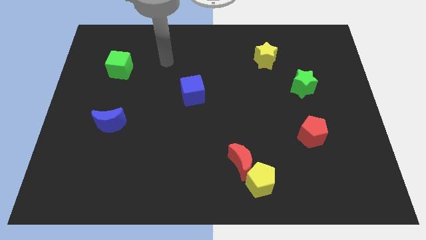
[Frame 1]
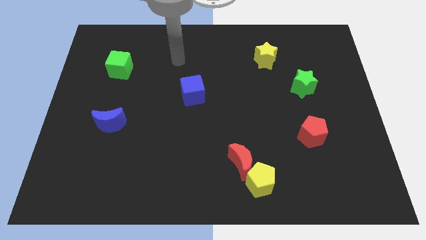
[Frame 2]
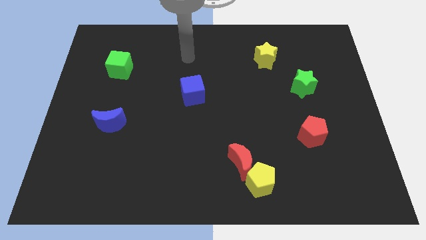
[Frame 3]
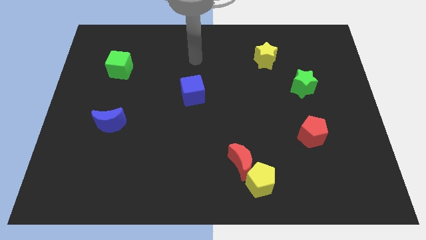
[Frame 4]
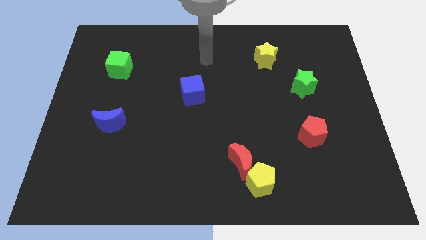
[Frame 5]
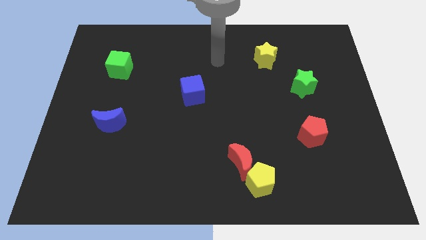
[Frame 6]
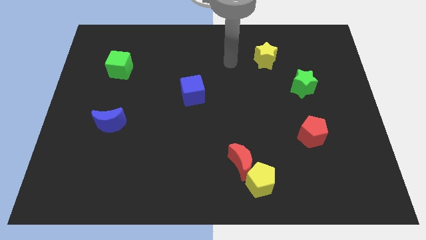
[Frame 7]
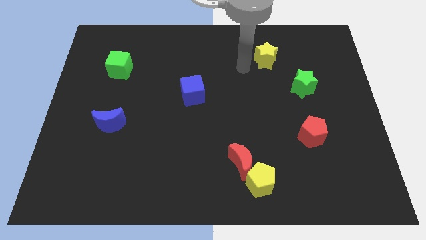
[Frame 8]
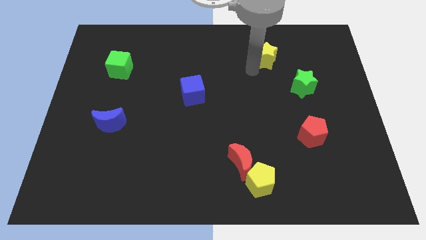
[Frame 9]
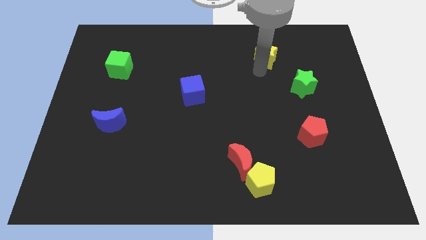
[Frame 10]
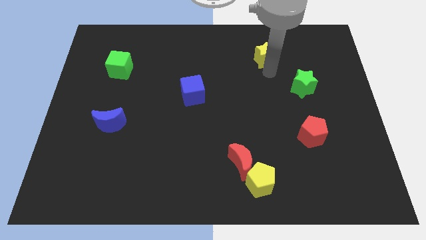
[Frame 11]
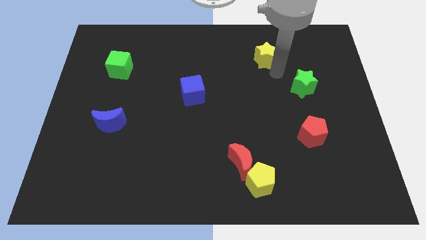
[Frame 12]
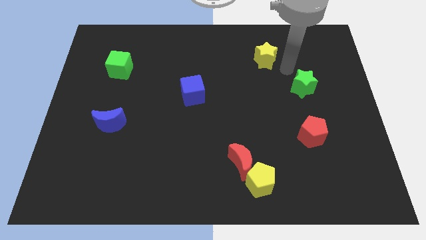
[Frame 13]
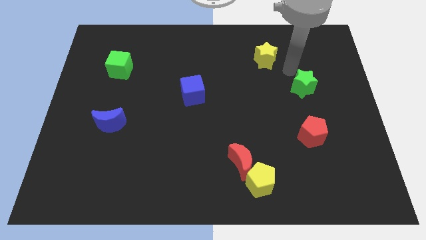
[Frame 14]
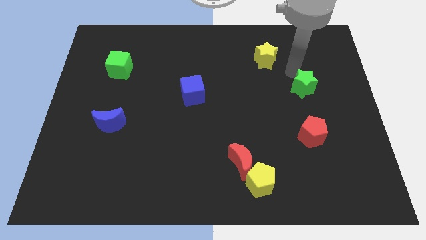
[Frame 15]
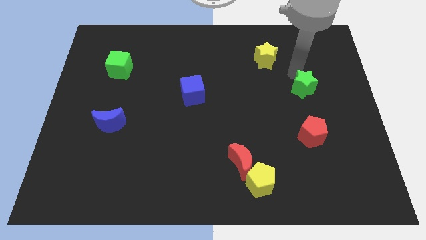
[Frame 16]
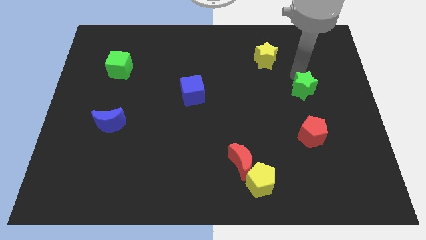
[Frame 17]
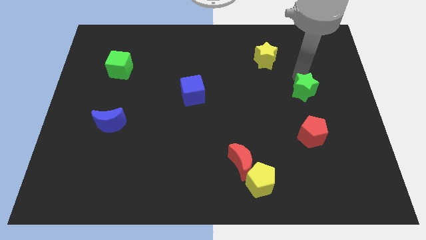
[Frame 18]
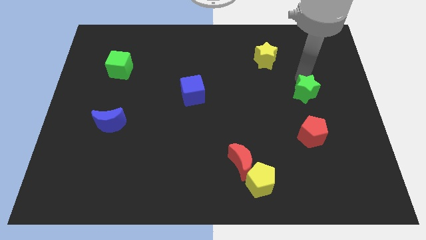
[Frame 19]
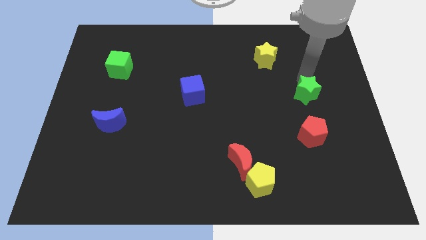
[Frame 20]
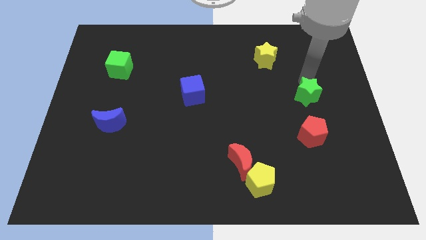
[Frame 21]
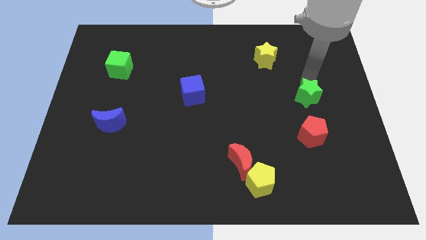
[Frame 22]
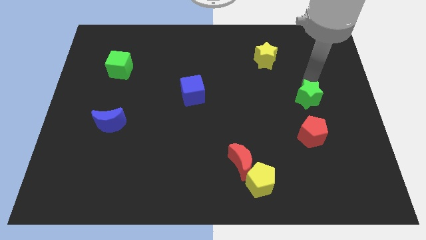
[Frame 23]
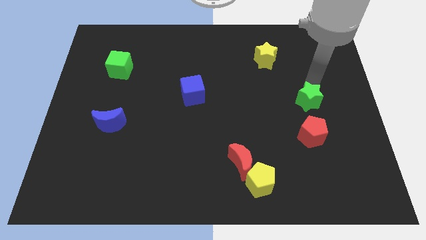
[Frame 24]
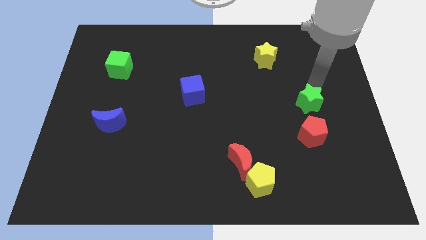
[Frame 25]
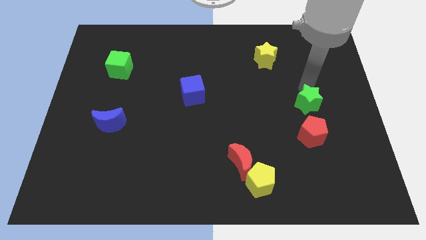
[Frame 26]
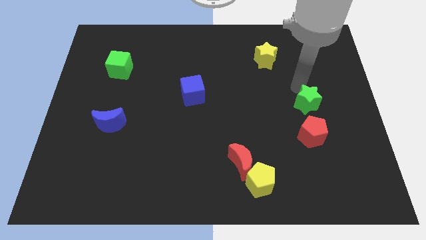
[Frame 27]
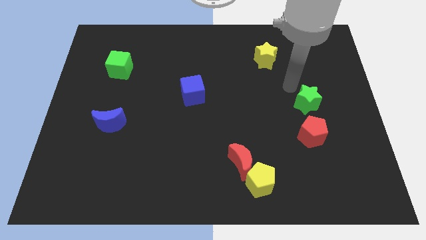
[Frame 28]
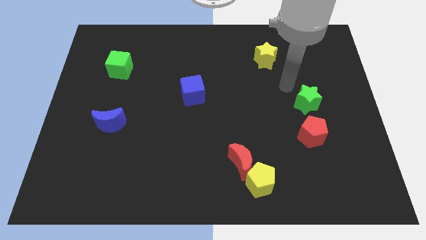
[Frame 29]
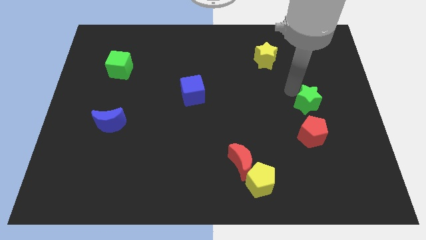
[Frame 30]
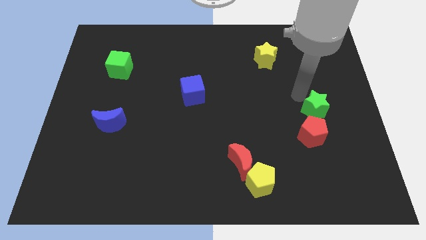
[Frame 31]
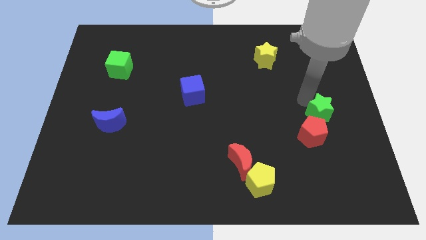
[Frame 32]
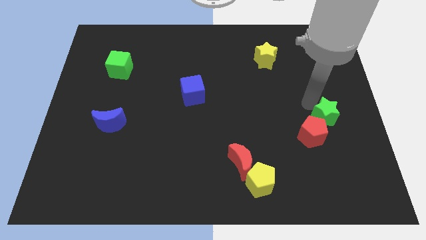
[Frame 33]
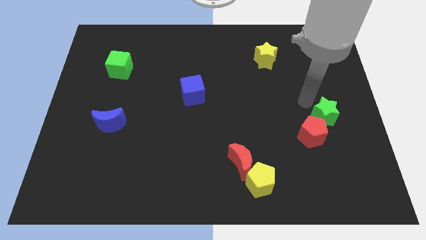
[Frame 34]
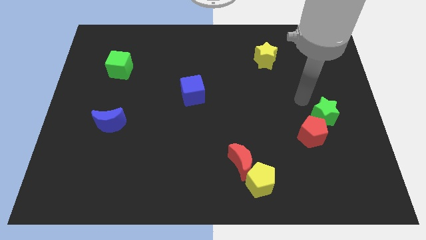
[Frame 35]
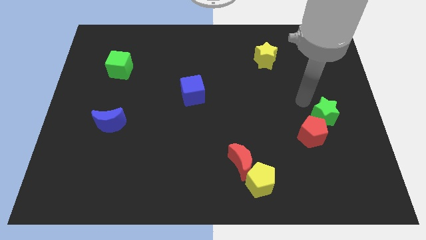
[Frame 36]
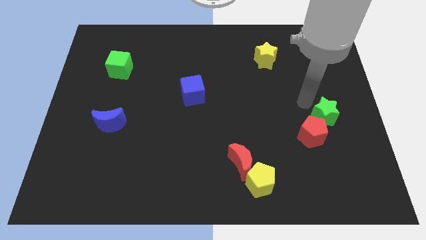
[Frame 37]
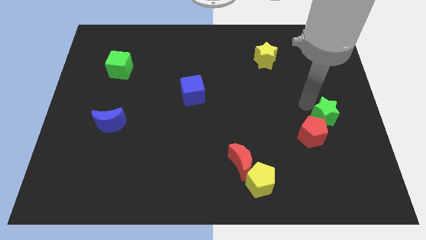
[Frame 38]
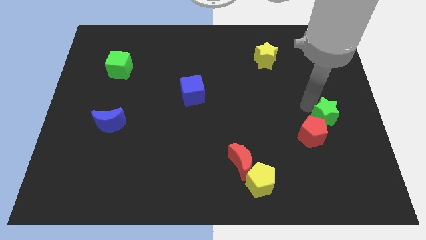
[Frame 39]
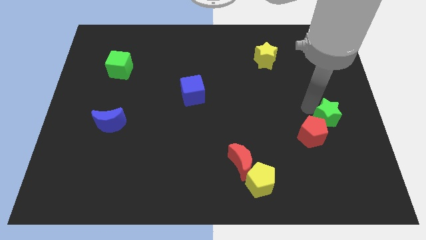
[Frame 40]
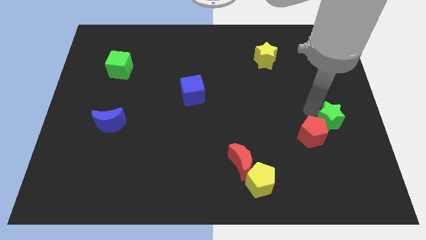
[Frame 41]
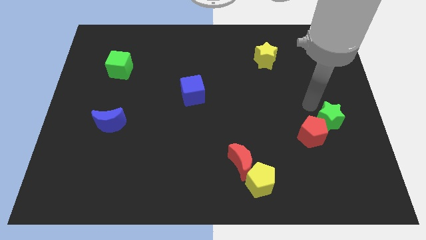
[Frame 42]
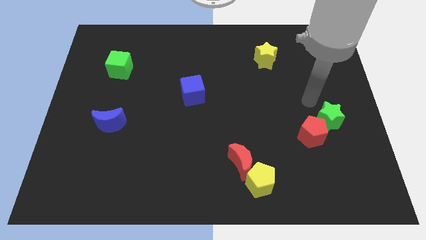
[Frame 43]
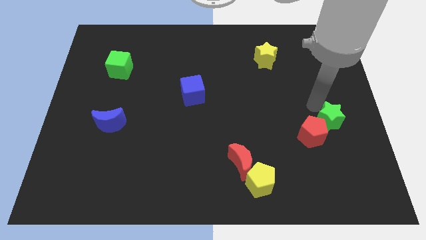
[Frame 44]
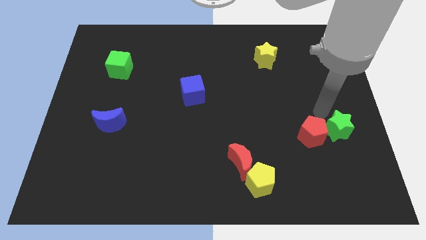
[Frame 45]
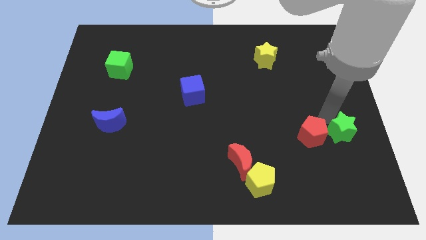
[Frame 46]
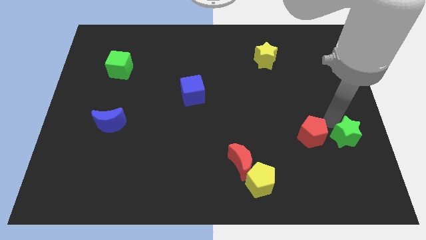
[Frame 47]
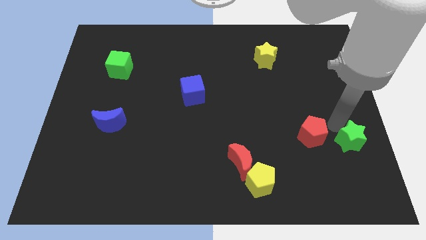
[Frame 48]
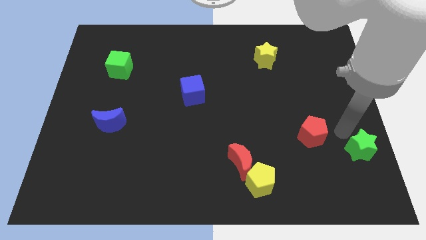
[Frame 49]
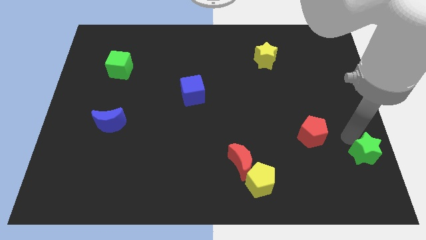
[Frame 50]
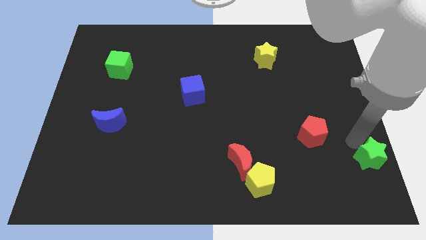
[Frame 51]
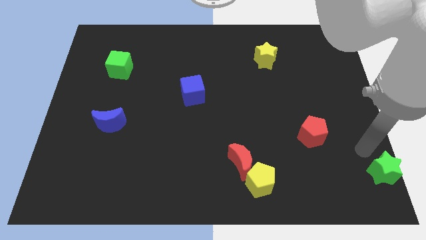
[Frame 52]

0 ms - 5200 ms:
slide the green star to the bottom right corner
